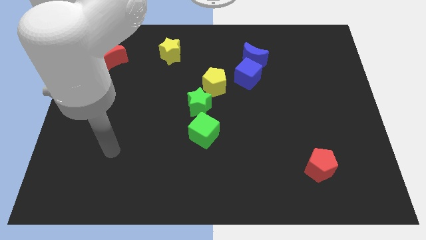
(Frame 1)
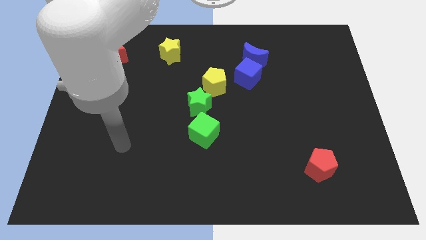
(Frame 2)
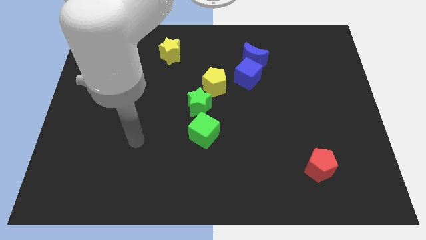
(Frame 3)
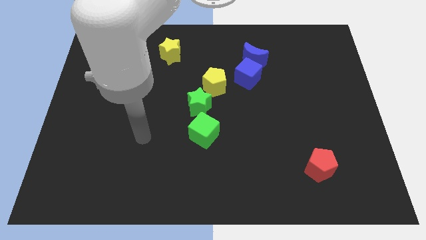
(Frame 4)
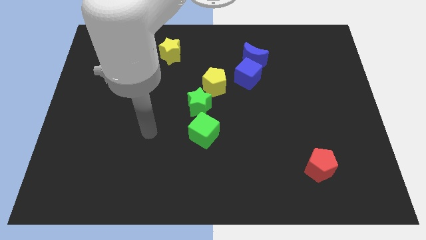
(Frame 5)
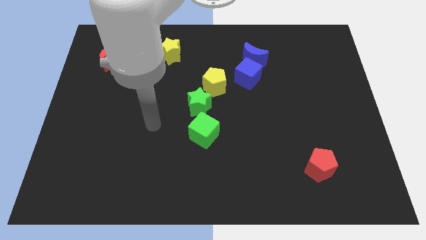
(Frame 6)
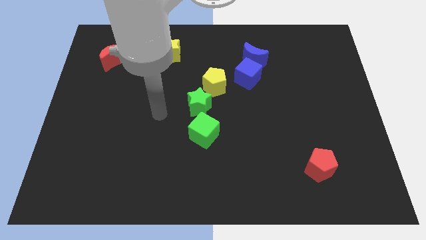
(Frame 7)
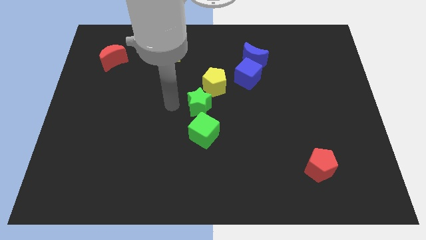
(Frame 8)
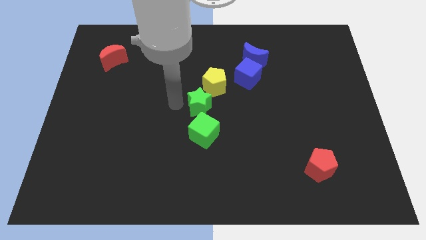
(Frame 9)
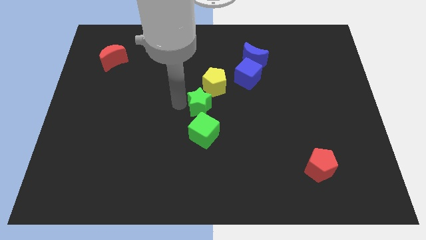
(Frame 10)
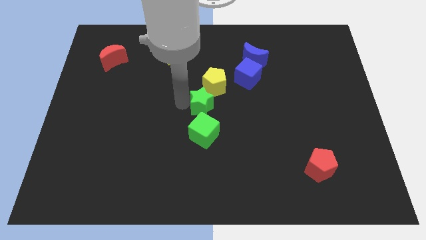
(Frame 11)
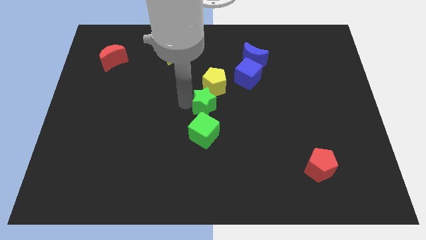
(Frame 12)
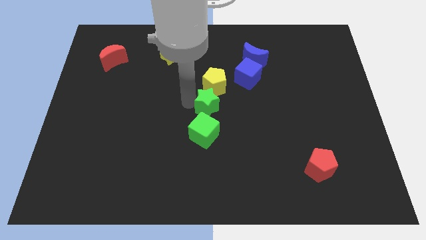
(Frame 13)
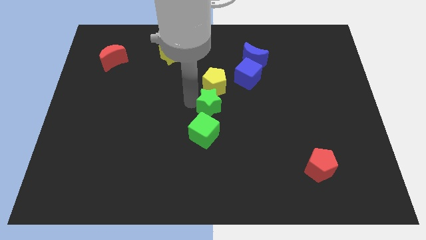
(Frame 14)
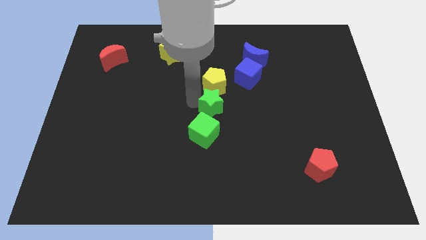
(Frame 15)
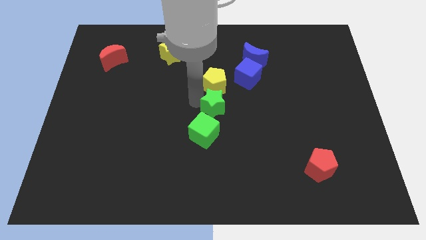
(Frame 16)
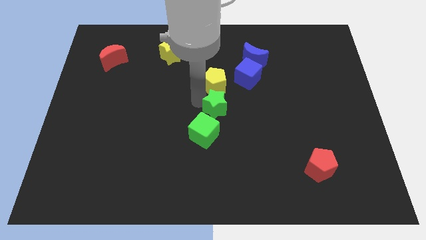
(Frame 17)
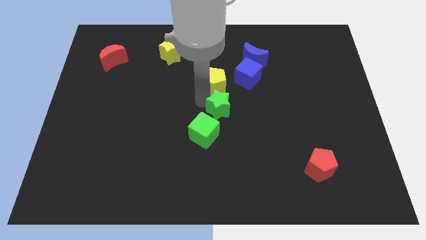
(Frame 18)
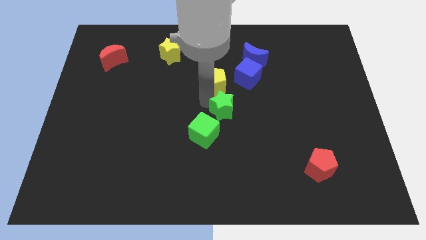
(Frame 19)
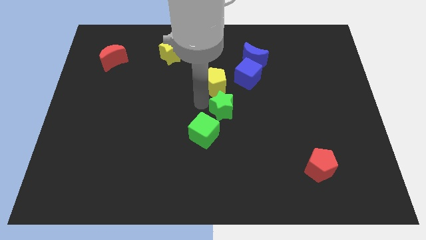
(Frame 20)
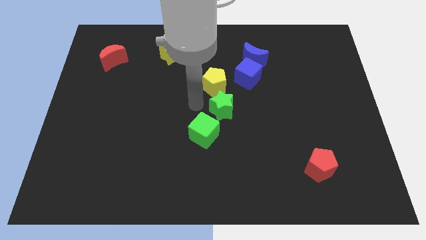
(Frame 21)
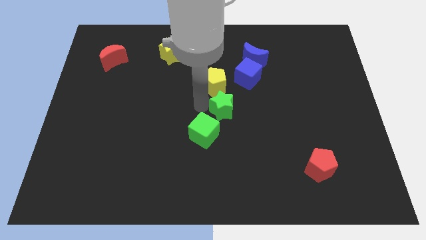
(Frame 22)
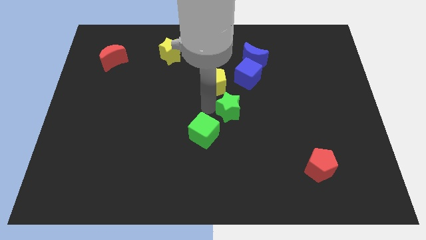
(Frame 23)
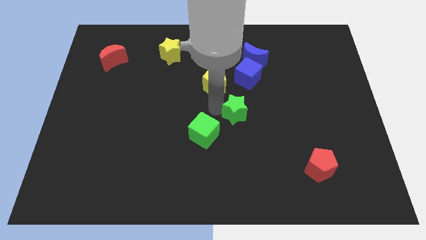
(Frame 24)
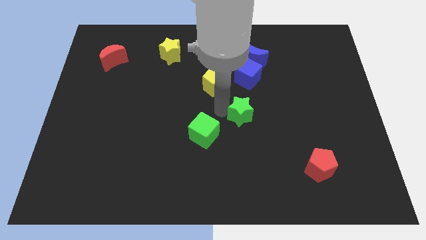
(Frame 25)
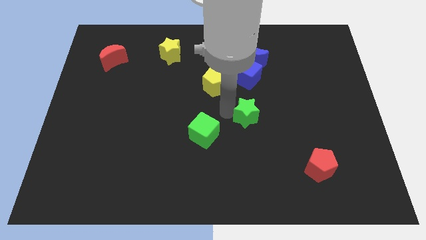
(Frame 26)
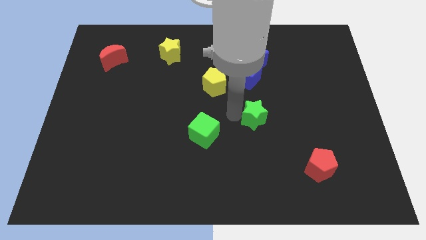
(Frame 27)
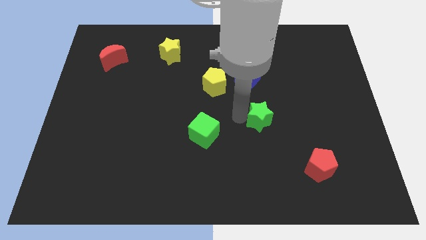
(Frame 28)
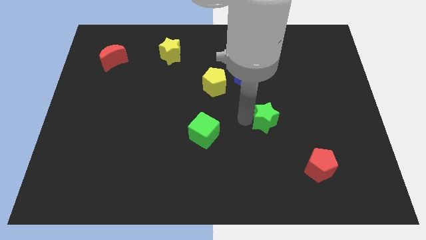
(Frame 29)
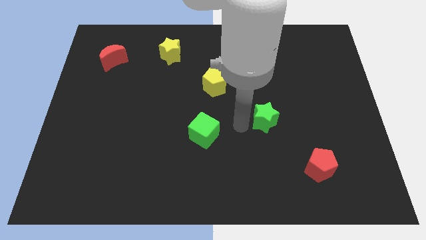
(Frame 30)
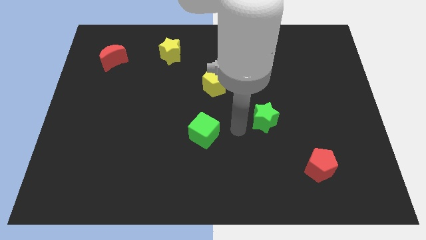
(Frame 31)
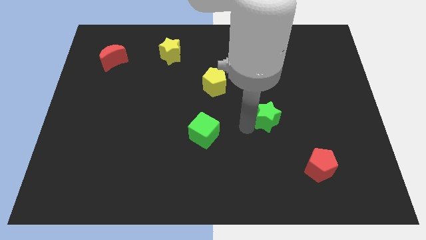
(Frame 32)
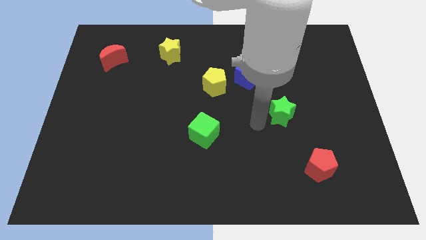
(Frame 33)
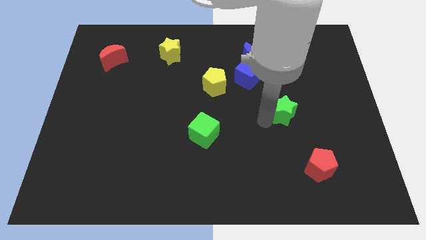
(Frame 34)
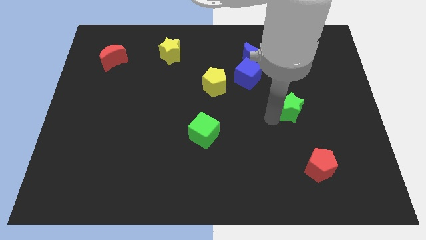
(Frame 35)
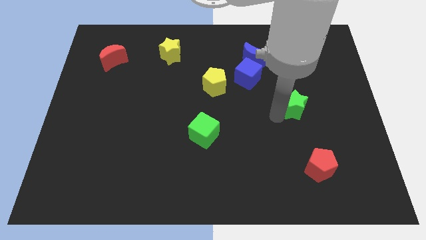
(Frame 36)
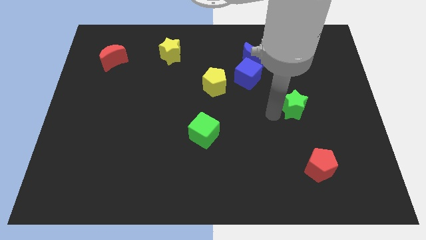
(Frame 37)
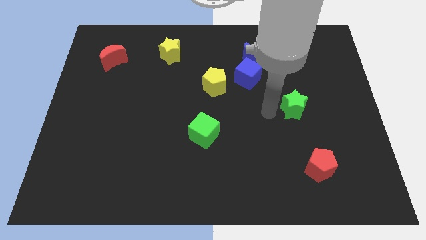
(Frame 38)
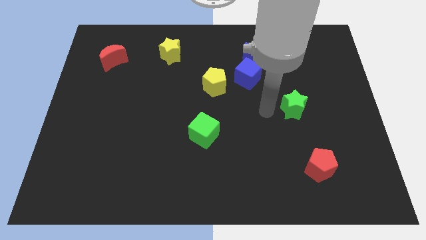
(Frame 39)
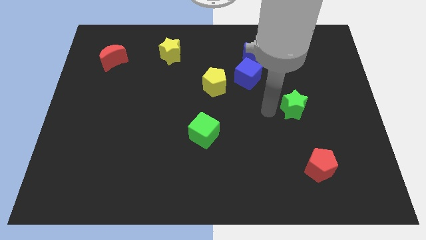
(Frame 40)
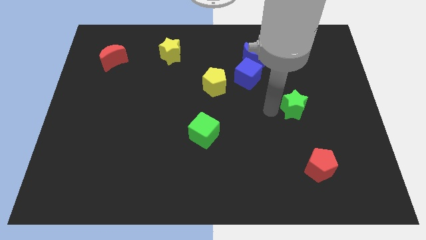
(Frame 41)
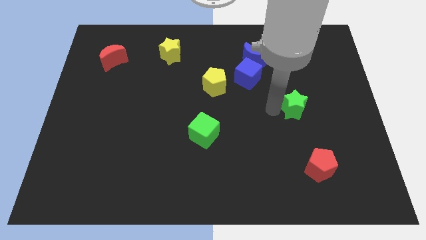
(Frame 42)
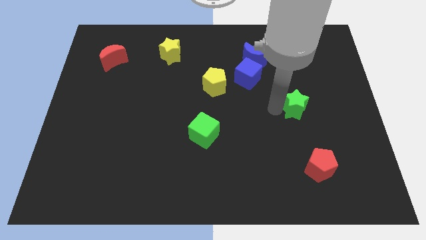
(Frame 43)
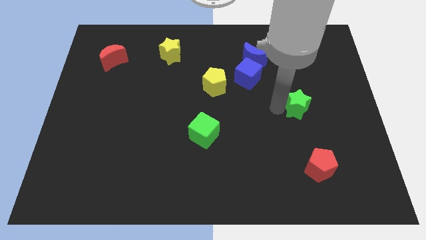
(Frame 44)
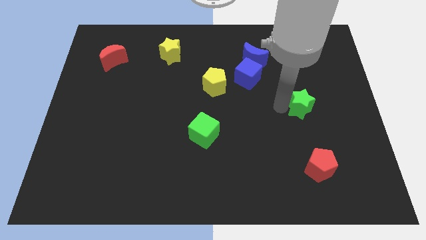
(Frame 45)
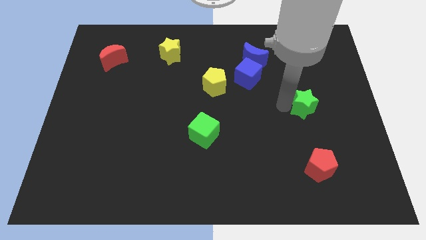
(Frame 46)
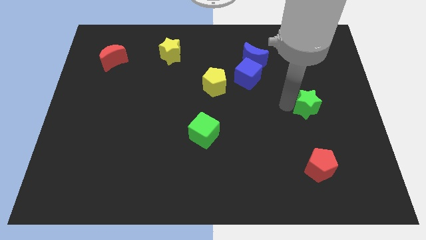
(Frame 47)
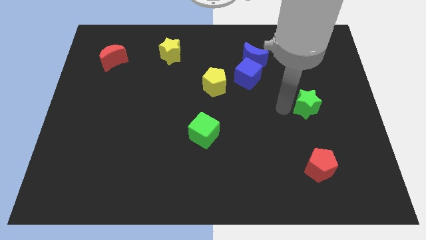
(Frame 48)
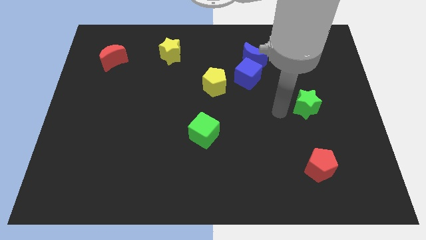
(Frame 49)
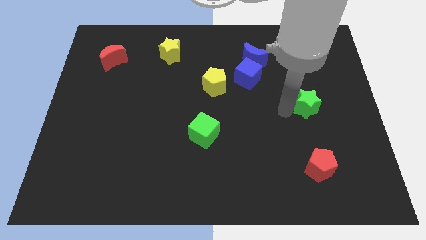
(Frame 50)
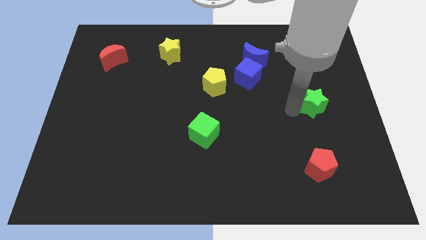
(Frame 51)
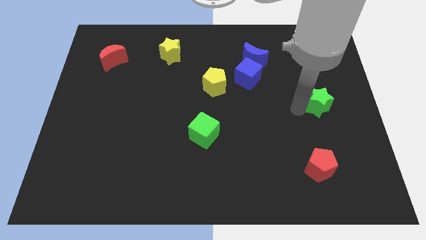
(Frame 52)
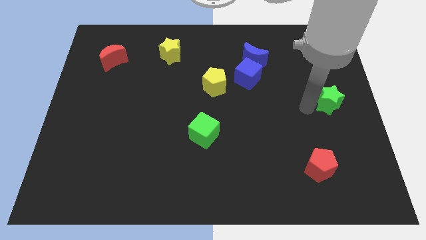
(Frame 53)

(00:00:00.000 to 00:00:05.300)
put the green star to the center right
